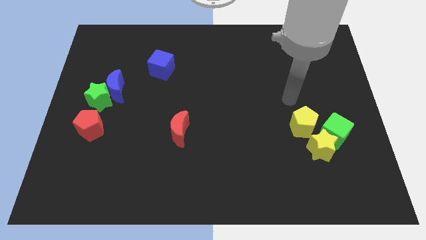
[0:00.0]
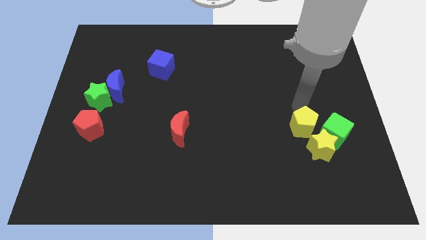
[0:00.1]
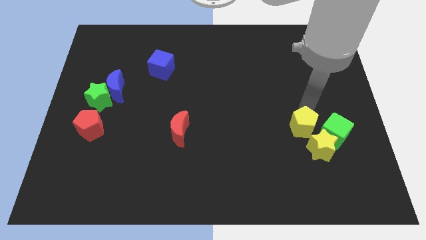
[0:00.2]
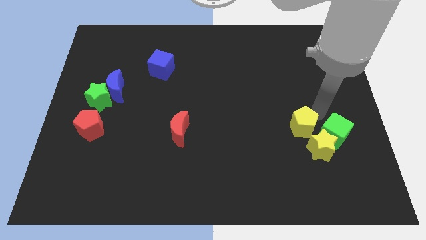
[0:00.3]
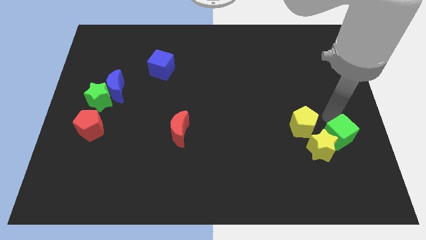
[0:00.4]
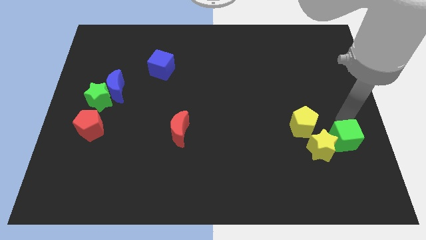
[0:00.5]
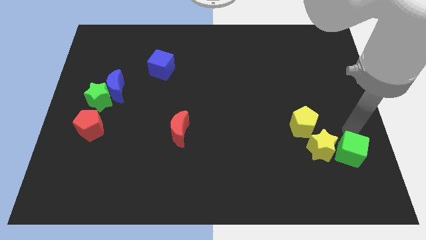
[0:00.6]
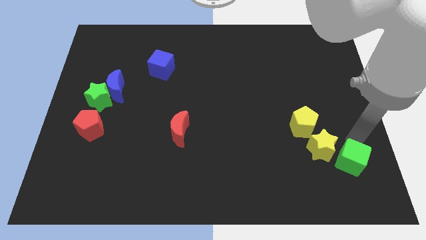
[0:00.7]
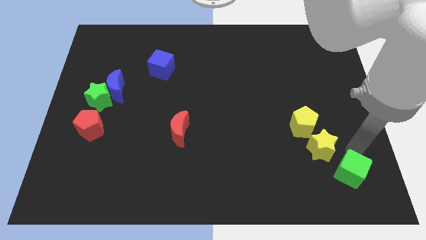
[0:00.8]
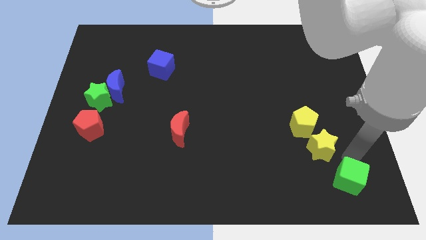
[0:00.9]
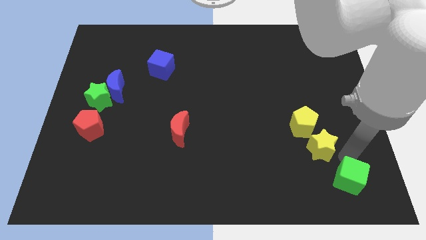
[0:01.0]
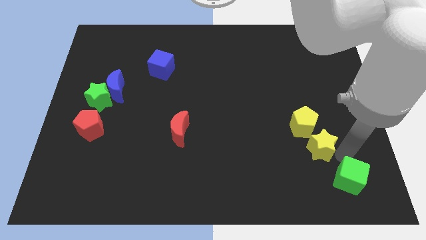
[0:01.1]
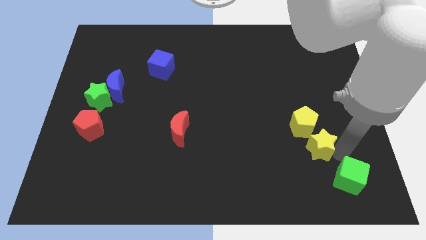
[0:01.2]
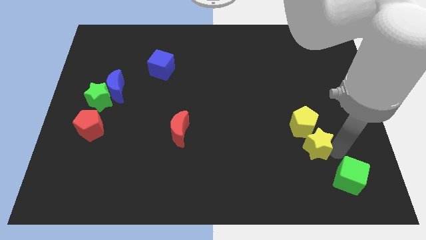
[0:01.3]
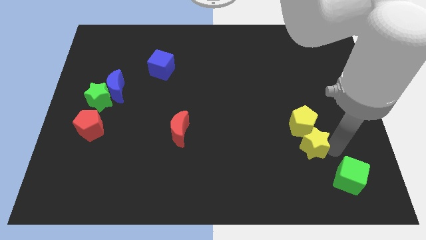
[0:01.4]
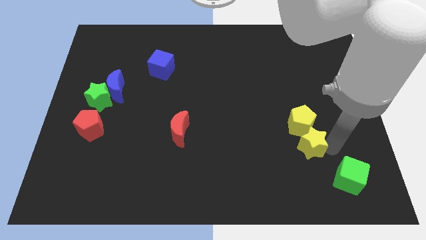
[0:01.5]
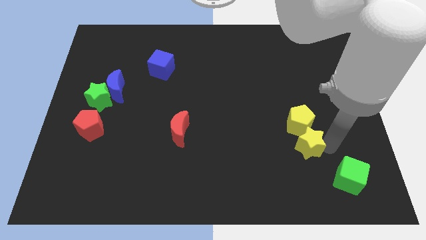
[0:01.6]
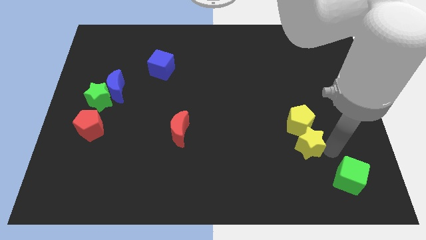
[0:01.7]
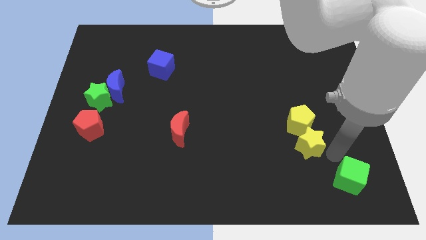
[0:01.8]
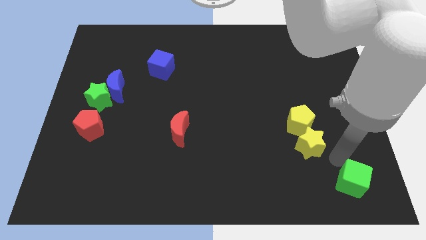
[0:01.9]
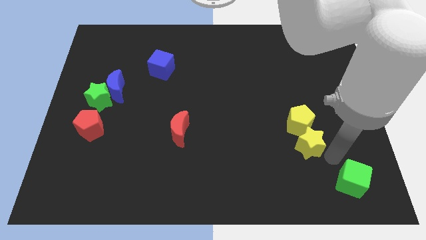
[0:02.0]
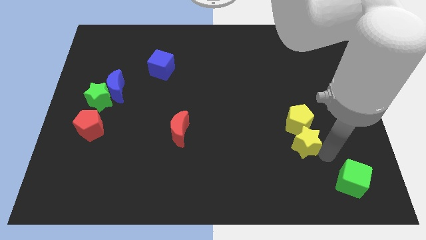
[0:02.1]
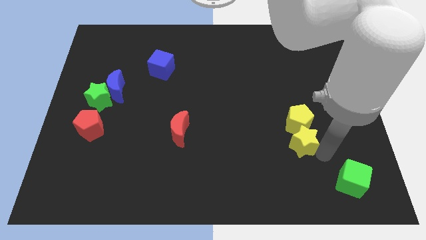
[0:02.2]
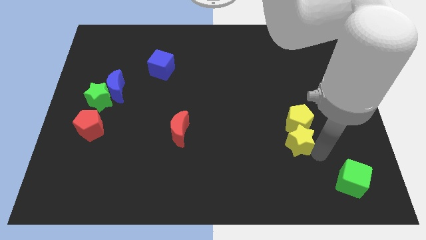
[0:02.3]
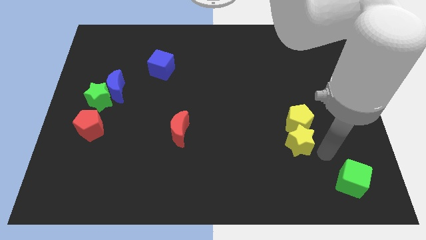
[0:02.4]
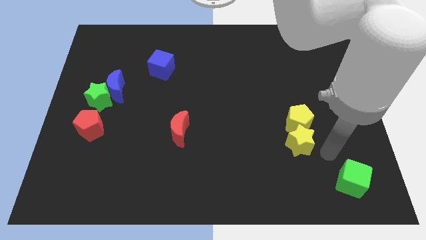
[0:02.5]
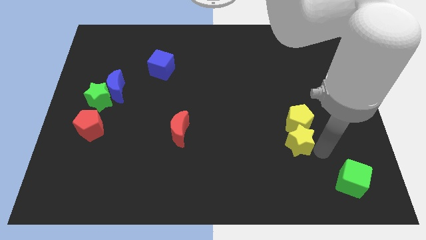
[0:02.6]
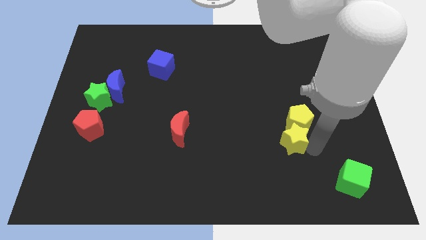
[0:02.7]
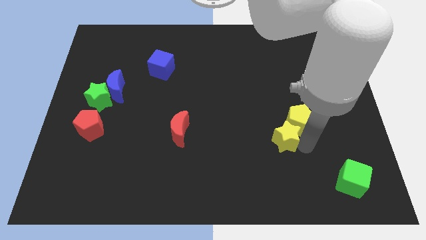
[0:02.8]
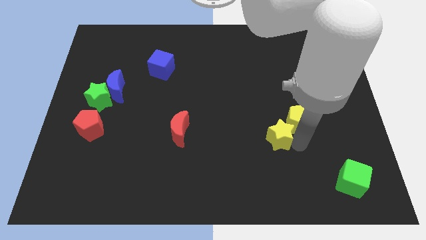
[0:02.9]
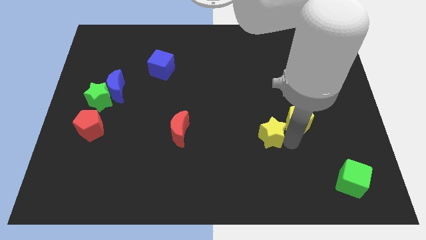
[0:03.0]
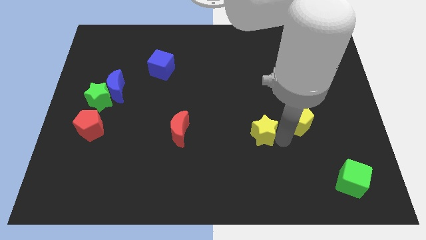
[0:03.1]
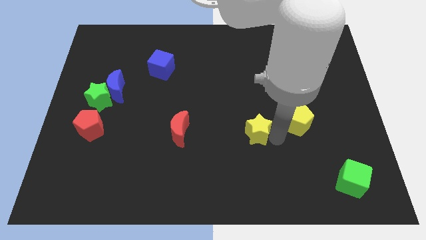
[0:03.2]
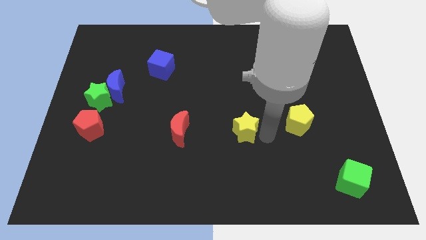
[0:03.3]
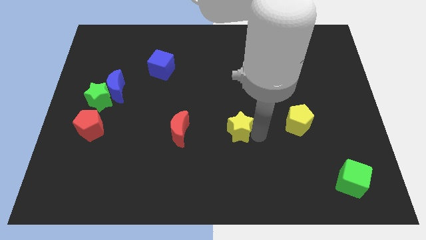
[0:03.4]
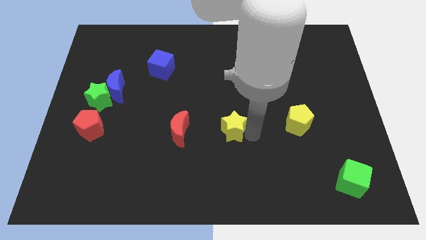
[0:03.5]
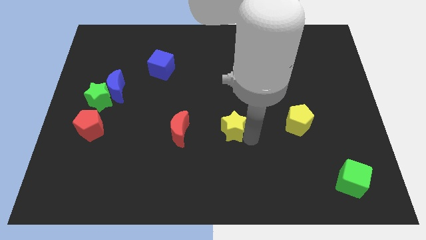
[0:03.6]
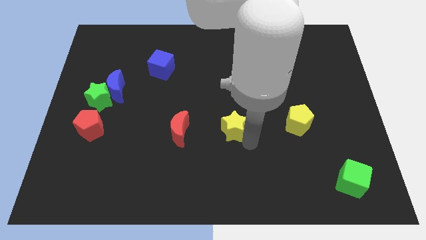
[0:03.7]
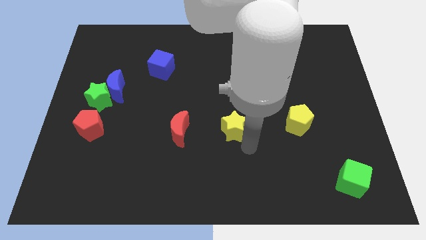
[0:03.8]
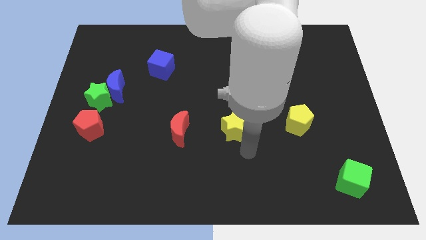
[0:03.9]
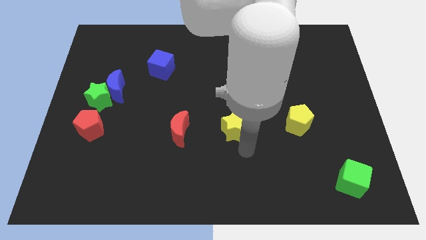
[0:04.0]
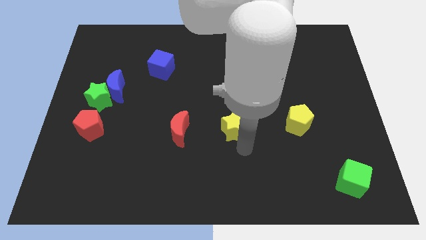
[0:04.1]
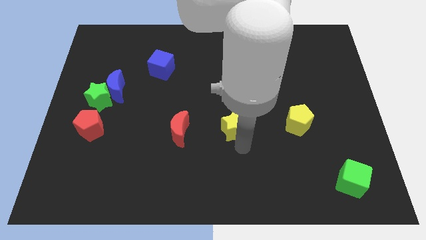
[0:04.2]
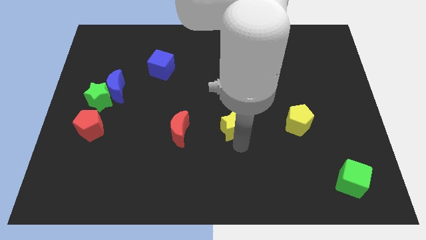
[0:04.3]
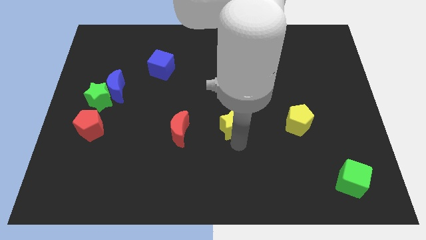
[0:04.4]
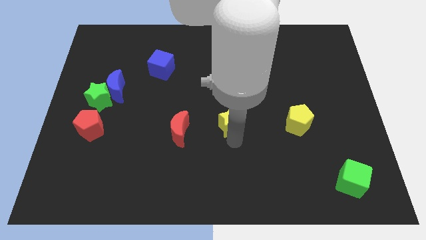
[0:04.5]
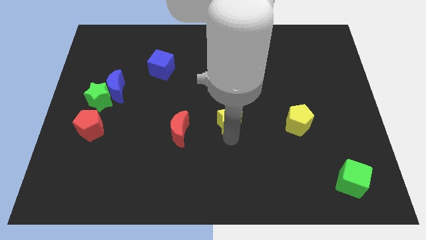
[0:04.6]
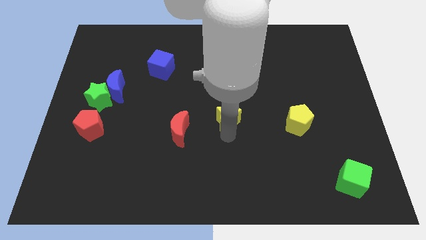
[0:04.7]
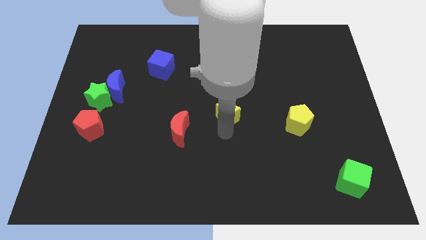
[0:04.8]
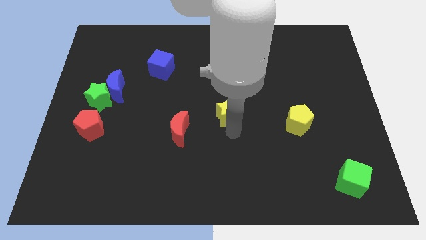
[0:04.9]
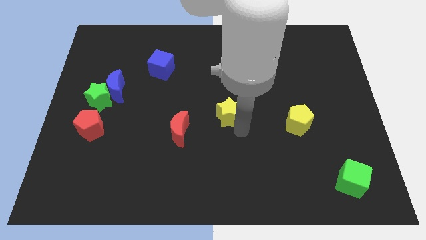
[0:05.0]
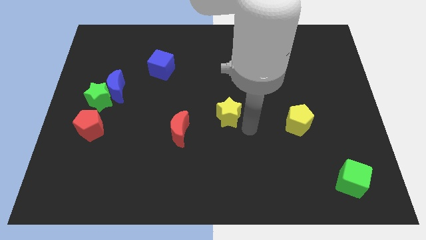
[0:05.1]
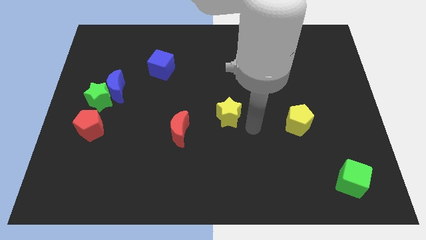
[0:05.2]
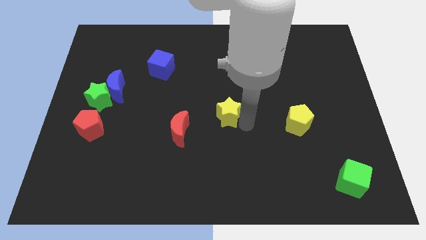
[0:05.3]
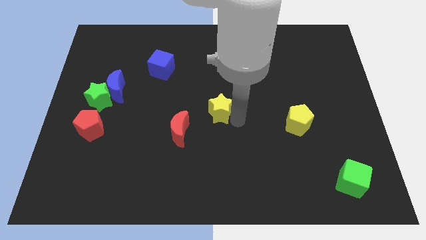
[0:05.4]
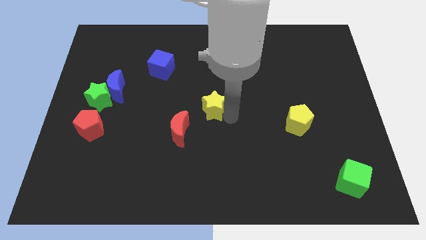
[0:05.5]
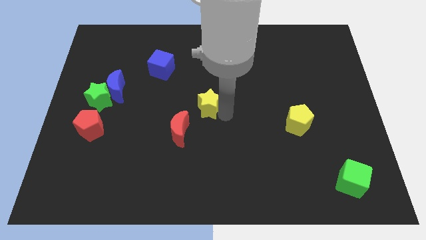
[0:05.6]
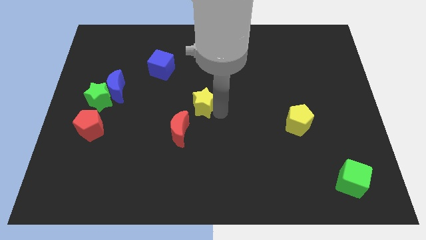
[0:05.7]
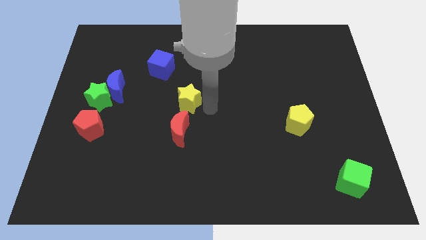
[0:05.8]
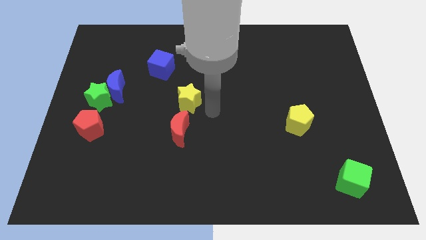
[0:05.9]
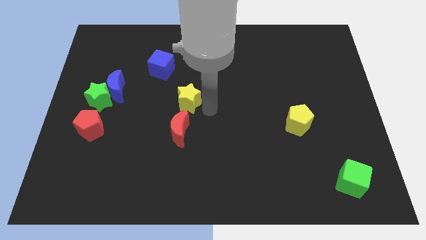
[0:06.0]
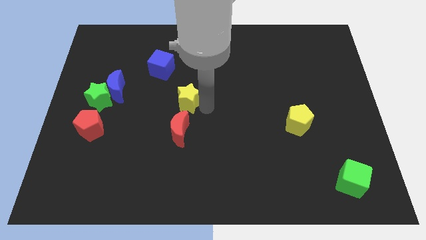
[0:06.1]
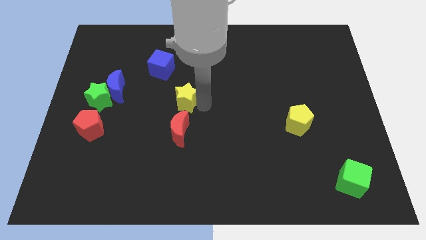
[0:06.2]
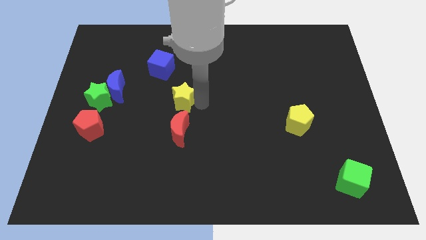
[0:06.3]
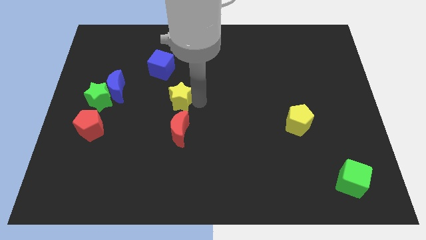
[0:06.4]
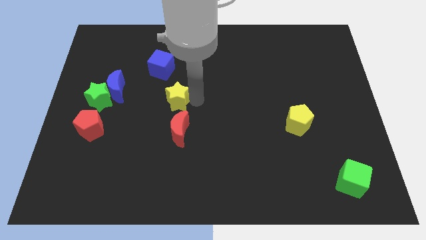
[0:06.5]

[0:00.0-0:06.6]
move the yellow star just right of the blue moon
